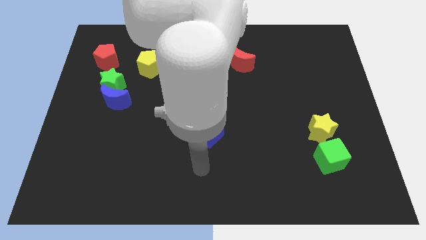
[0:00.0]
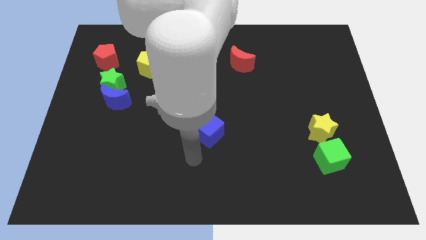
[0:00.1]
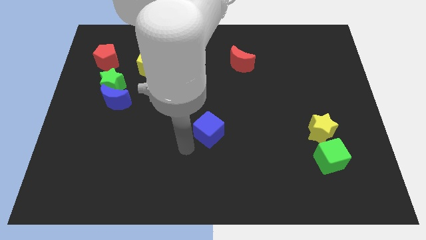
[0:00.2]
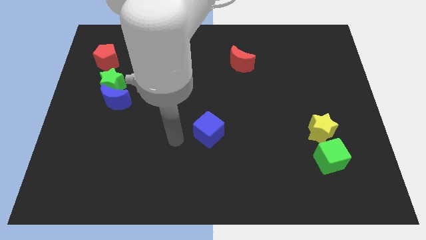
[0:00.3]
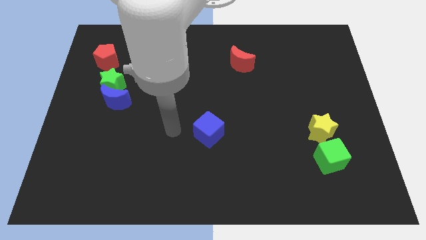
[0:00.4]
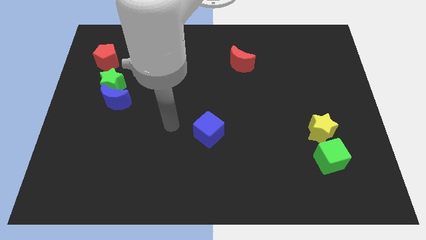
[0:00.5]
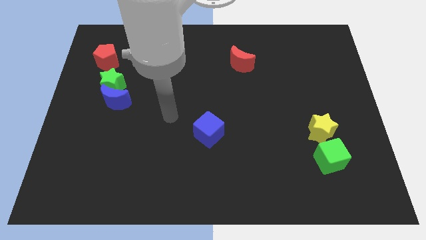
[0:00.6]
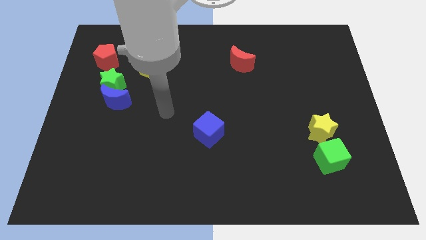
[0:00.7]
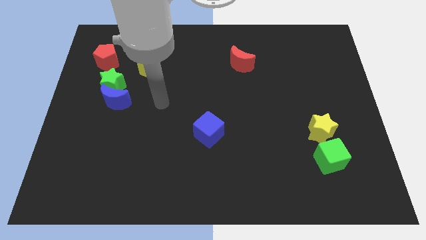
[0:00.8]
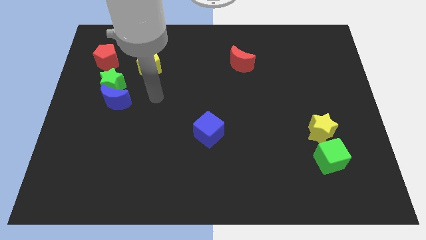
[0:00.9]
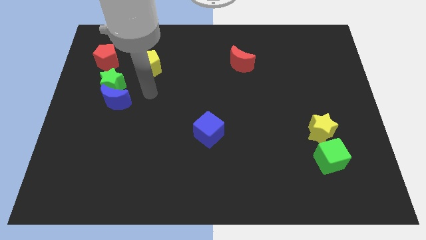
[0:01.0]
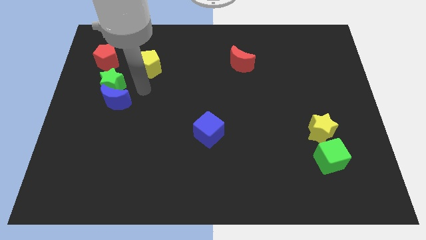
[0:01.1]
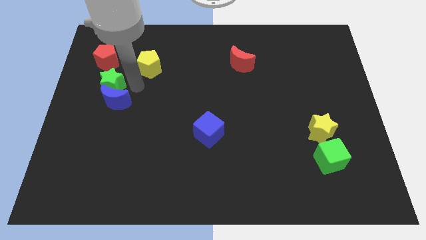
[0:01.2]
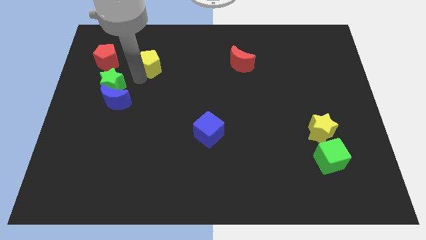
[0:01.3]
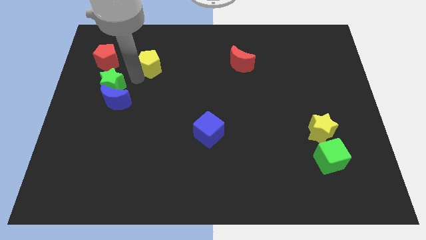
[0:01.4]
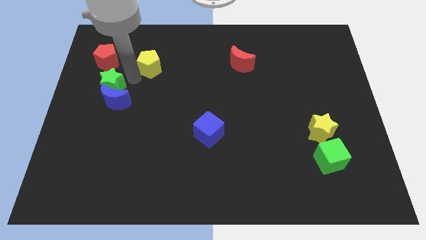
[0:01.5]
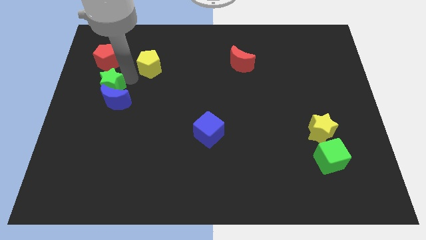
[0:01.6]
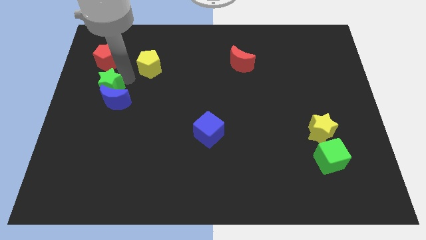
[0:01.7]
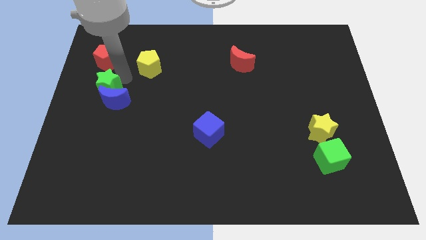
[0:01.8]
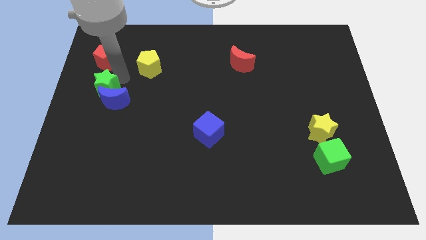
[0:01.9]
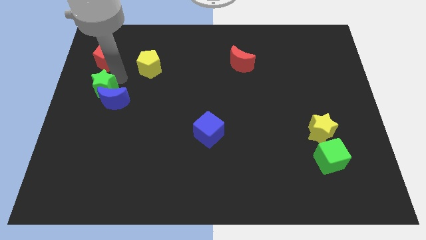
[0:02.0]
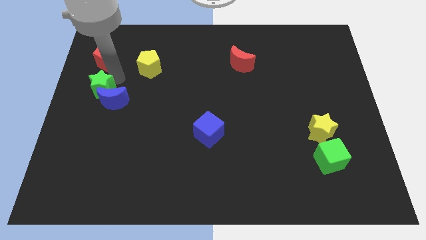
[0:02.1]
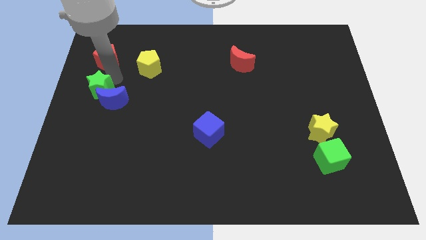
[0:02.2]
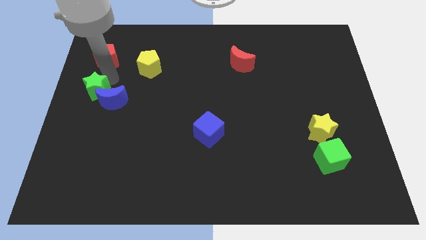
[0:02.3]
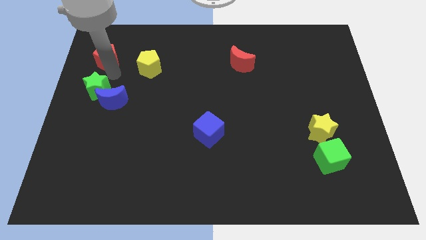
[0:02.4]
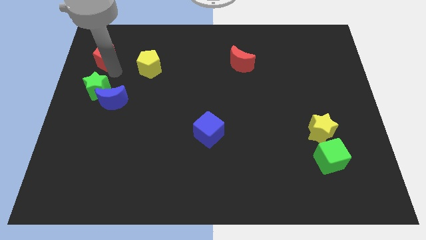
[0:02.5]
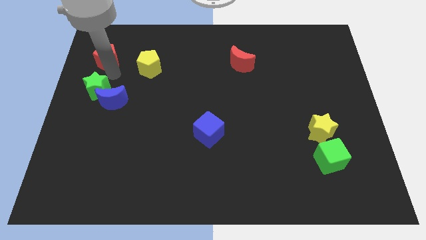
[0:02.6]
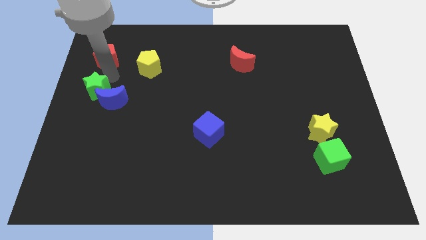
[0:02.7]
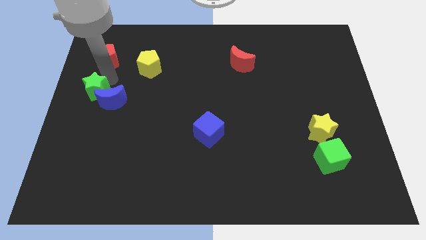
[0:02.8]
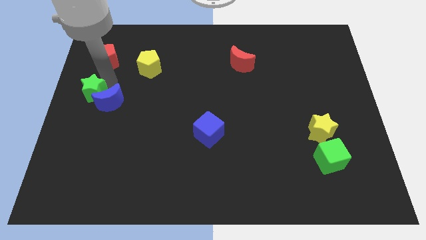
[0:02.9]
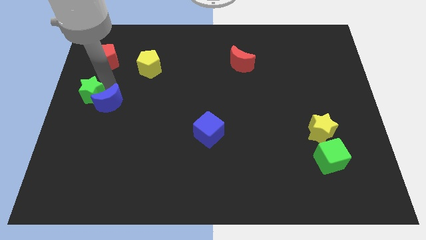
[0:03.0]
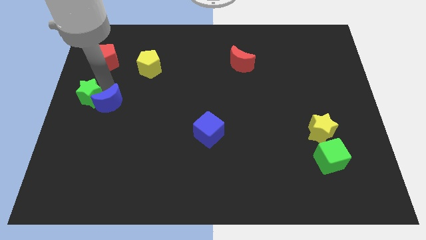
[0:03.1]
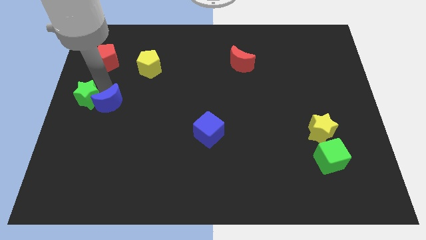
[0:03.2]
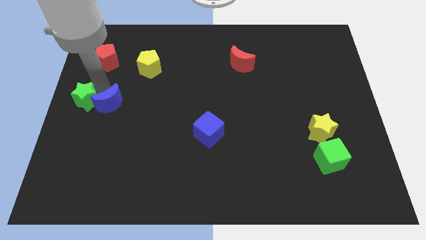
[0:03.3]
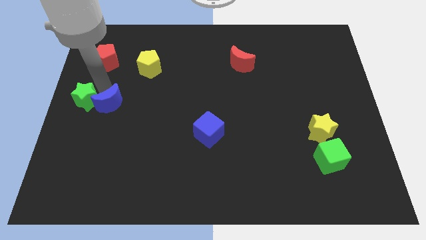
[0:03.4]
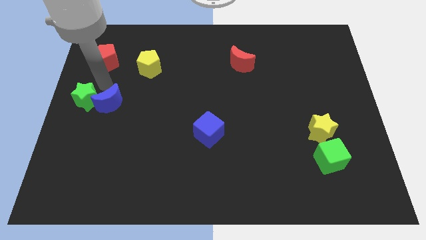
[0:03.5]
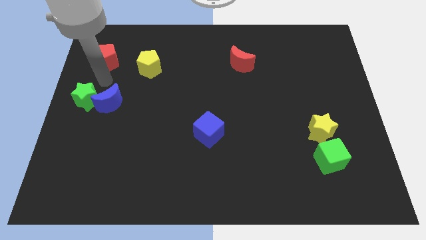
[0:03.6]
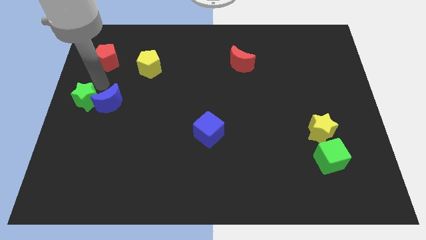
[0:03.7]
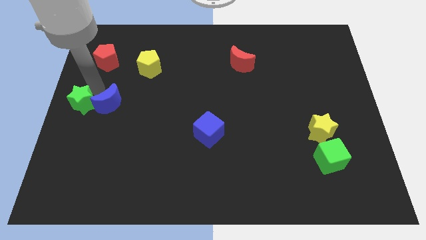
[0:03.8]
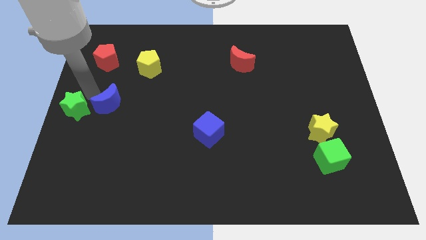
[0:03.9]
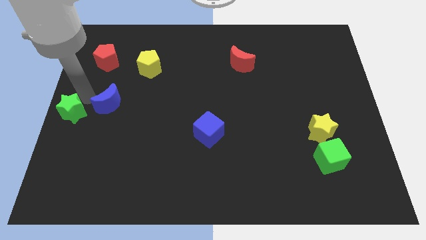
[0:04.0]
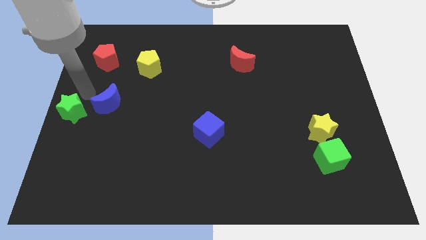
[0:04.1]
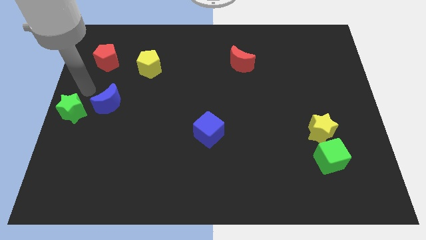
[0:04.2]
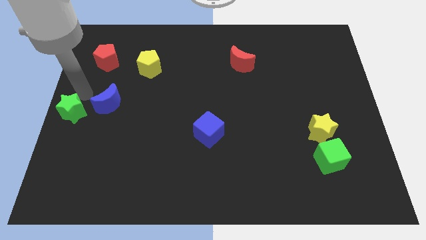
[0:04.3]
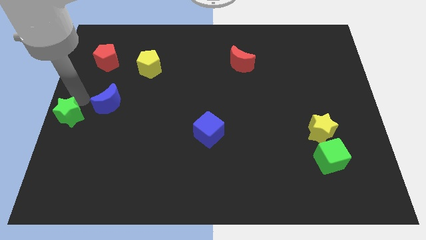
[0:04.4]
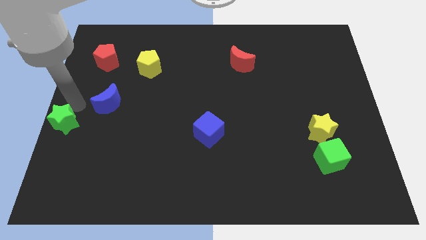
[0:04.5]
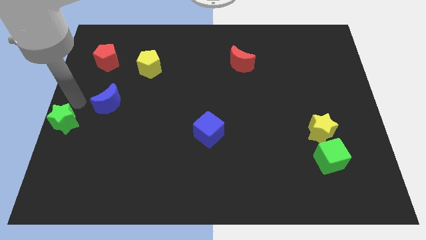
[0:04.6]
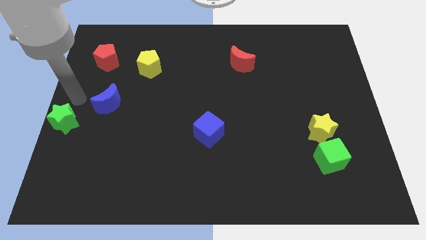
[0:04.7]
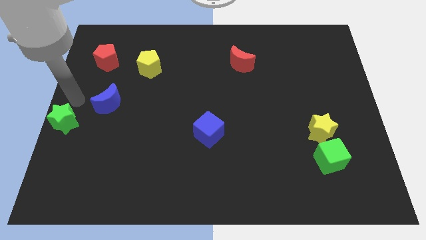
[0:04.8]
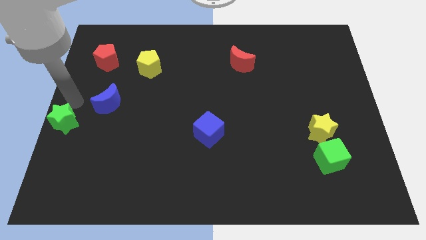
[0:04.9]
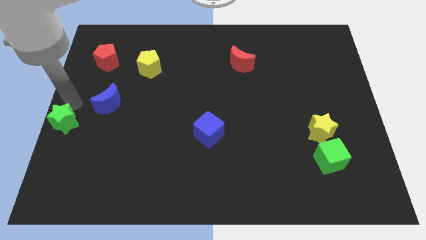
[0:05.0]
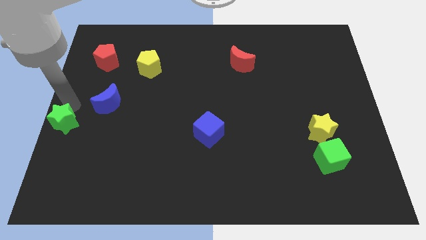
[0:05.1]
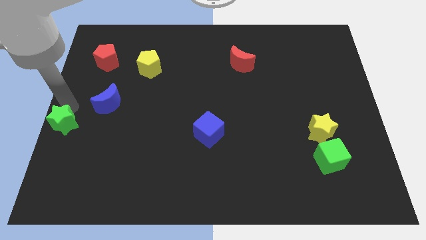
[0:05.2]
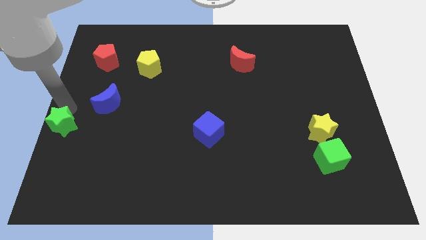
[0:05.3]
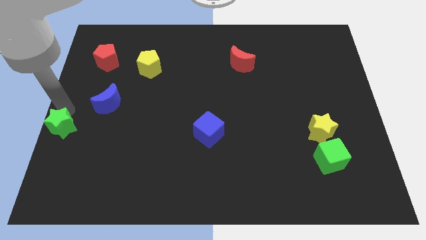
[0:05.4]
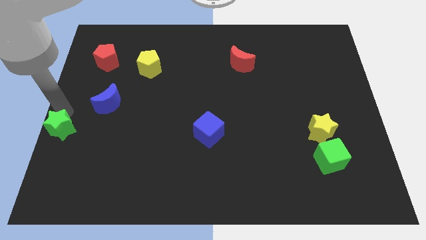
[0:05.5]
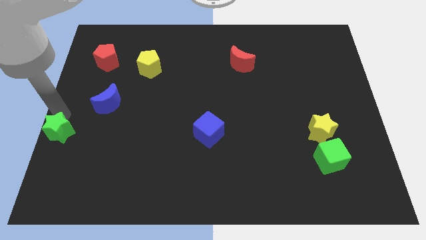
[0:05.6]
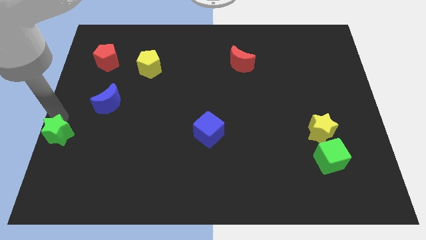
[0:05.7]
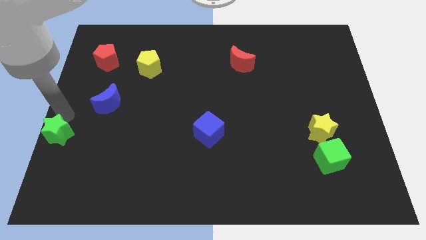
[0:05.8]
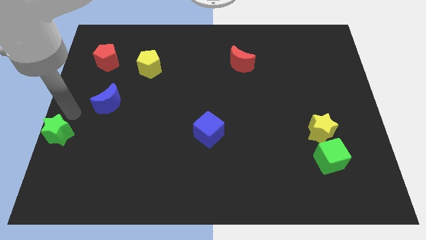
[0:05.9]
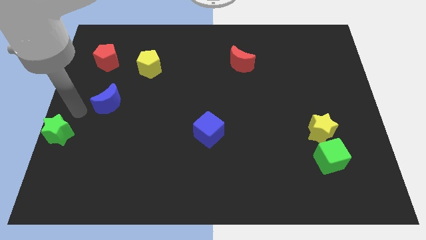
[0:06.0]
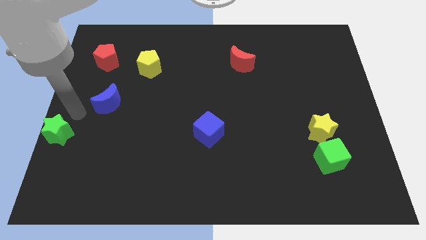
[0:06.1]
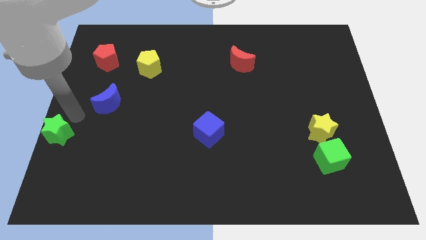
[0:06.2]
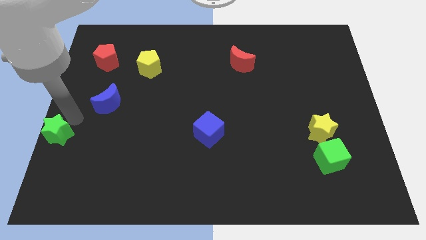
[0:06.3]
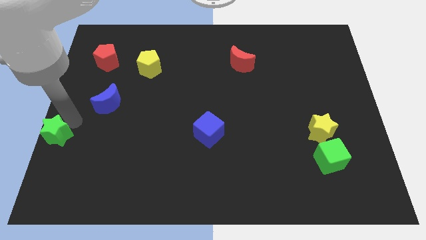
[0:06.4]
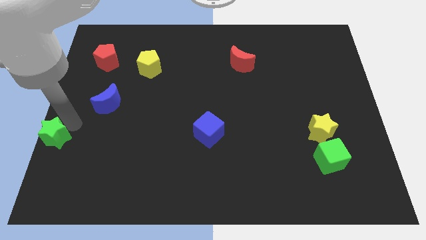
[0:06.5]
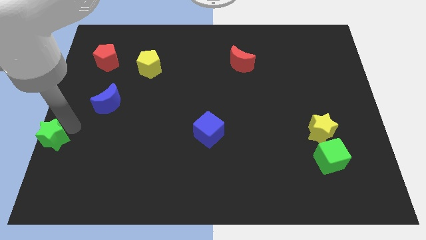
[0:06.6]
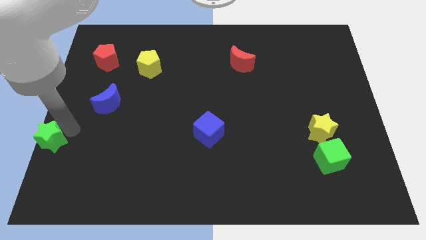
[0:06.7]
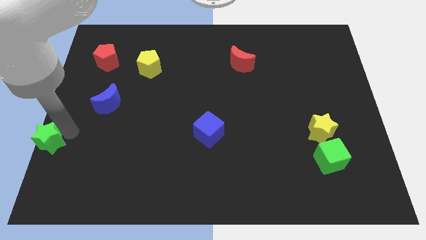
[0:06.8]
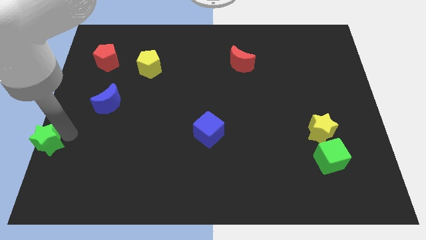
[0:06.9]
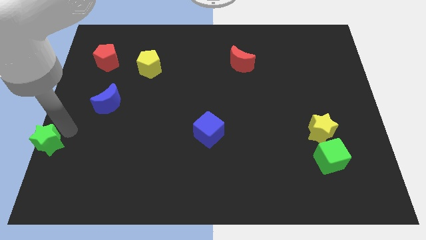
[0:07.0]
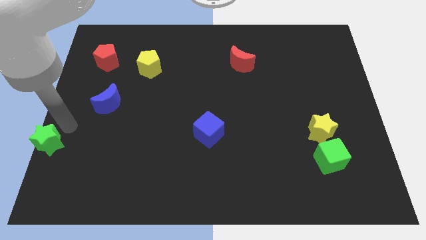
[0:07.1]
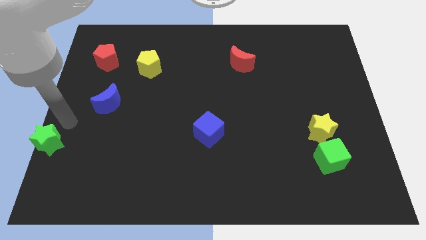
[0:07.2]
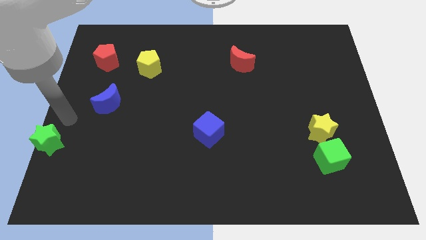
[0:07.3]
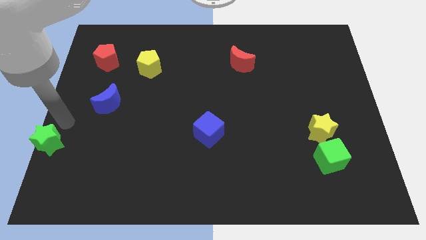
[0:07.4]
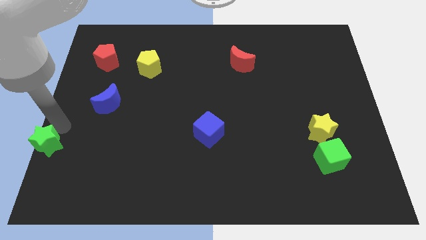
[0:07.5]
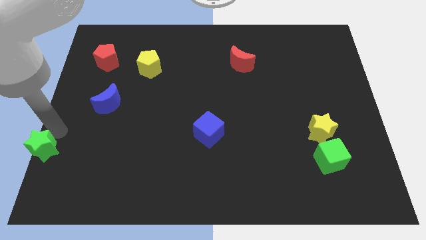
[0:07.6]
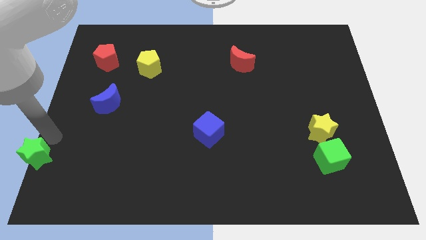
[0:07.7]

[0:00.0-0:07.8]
slide the green star to the bottom left of the board
